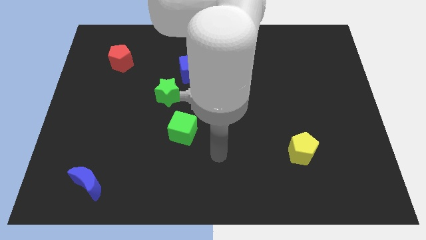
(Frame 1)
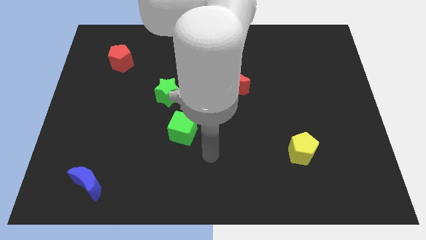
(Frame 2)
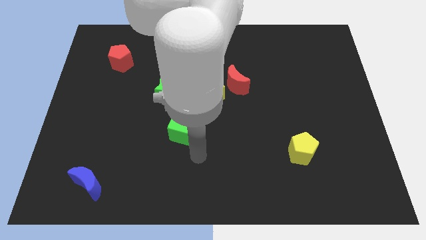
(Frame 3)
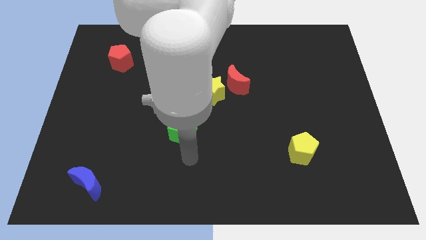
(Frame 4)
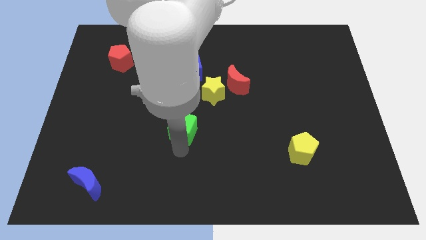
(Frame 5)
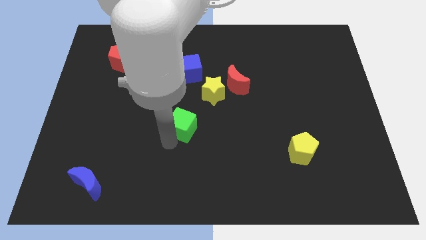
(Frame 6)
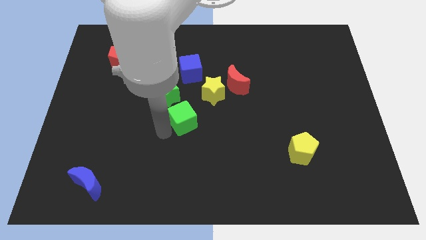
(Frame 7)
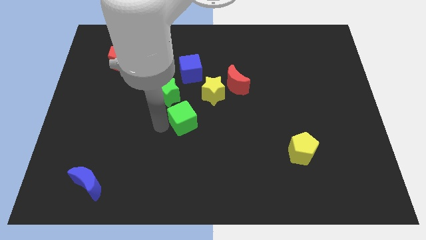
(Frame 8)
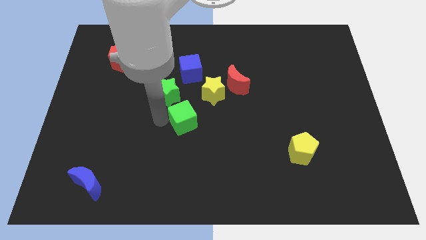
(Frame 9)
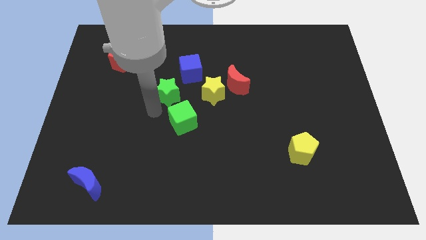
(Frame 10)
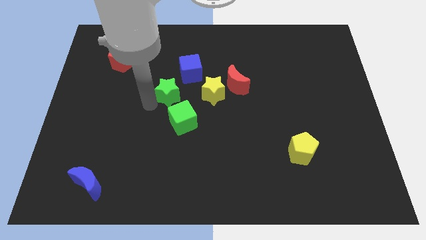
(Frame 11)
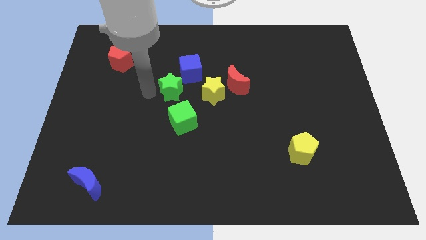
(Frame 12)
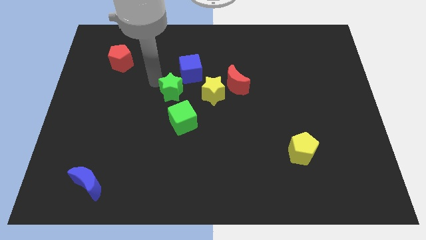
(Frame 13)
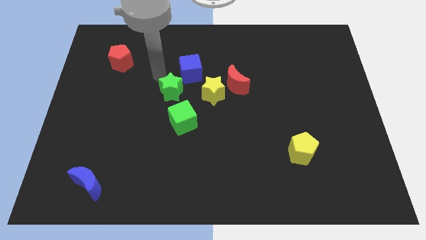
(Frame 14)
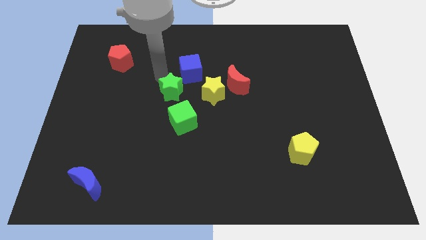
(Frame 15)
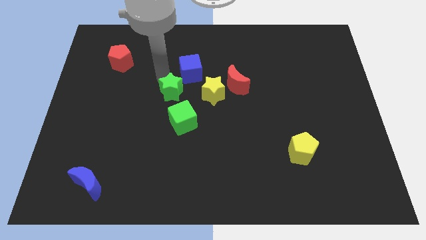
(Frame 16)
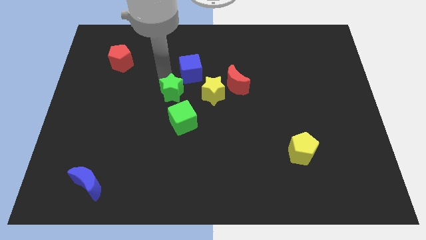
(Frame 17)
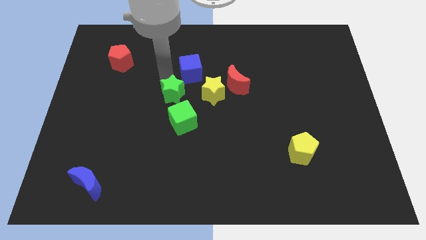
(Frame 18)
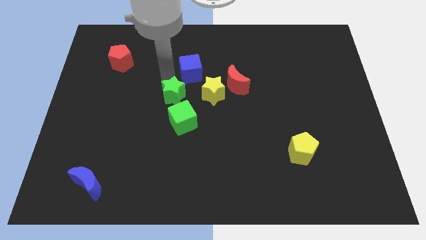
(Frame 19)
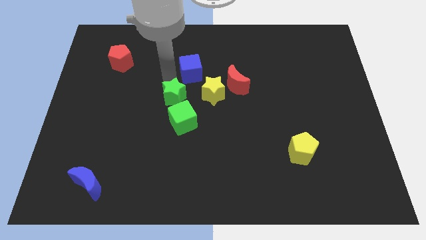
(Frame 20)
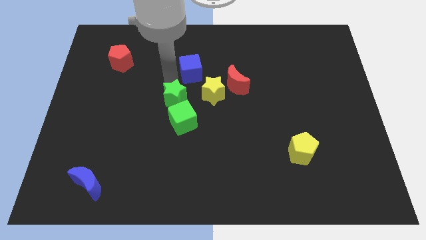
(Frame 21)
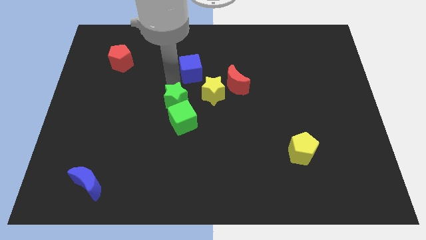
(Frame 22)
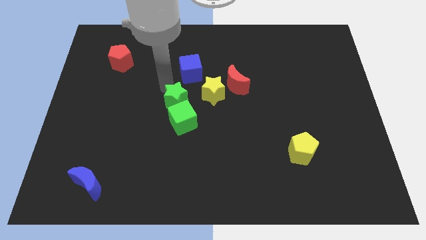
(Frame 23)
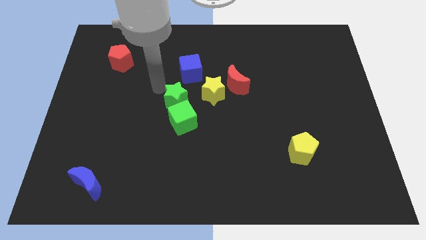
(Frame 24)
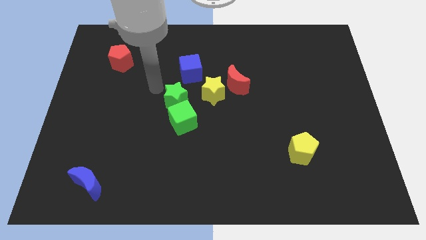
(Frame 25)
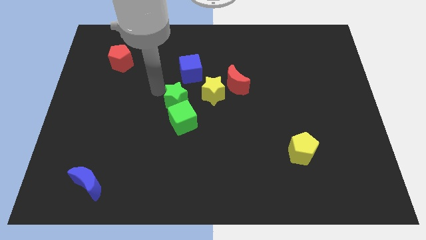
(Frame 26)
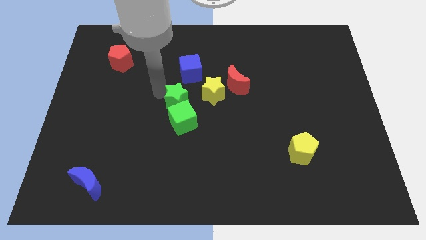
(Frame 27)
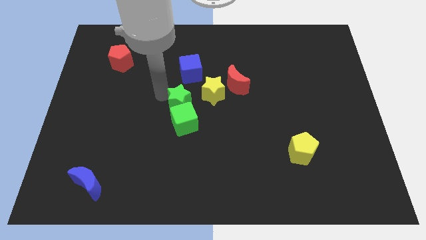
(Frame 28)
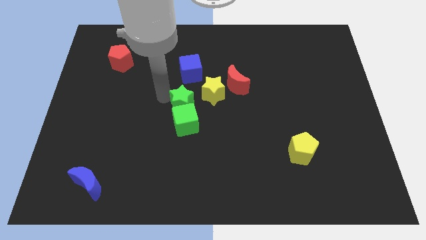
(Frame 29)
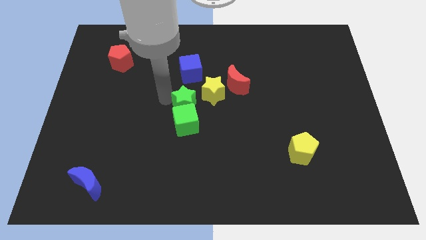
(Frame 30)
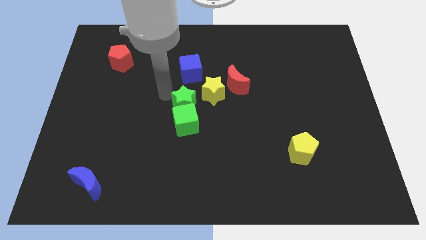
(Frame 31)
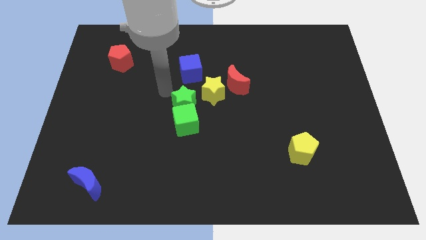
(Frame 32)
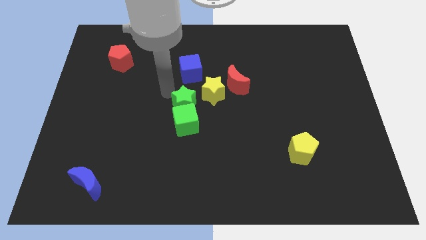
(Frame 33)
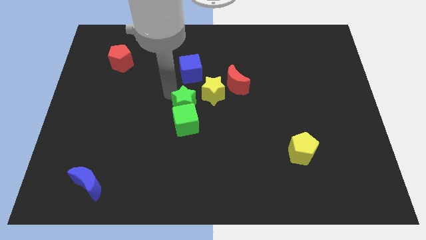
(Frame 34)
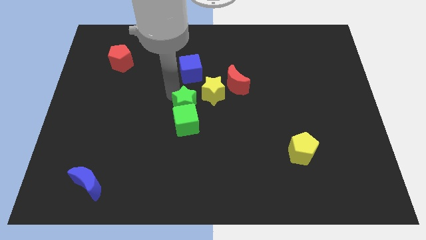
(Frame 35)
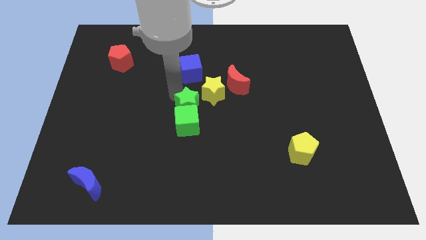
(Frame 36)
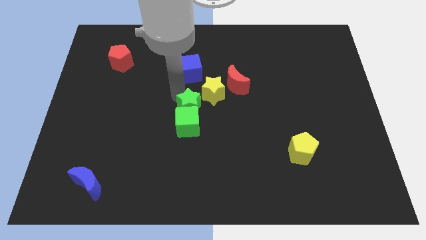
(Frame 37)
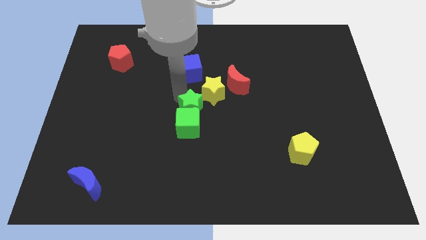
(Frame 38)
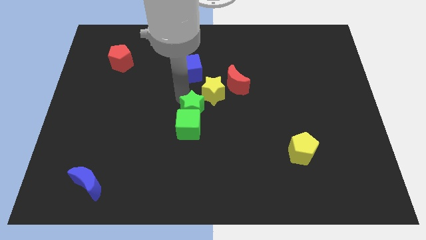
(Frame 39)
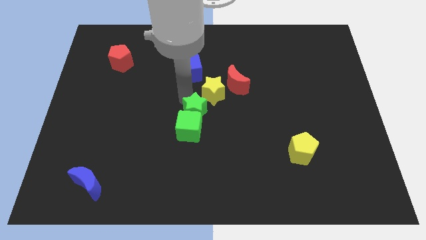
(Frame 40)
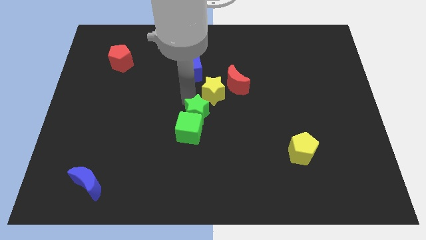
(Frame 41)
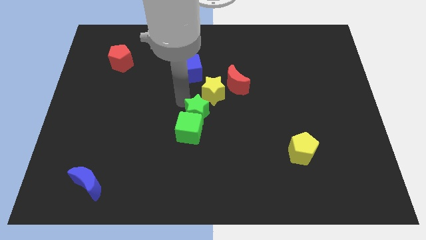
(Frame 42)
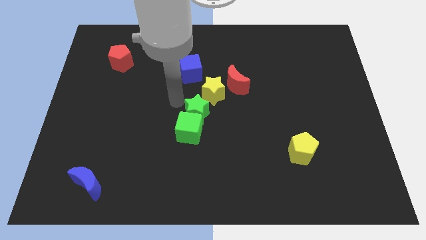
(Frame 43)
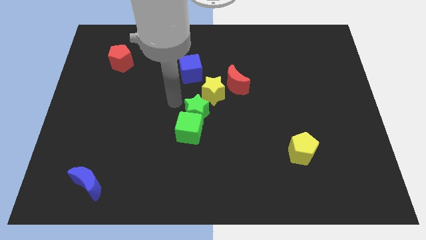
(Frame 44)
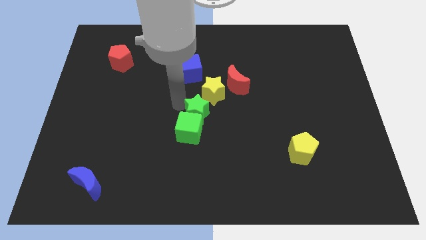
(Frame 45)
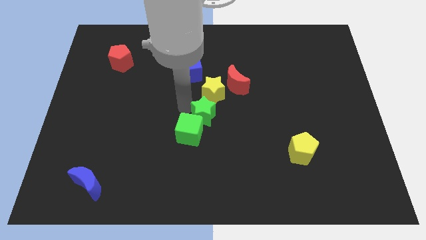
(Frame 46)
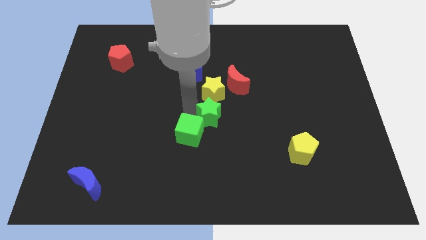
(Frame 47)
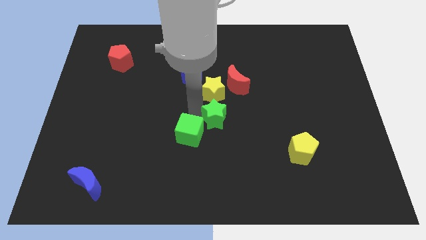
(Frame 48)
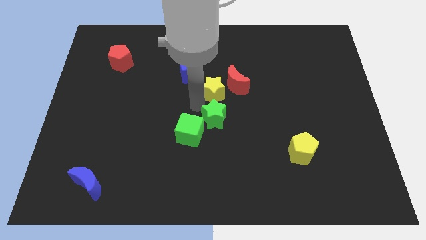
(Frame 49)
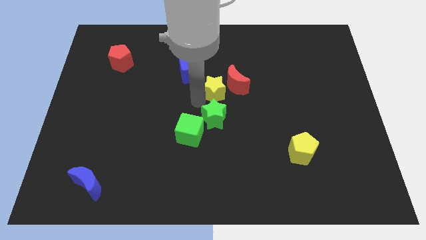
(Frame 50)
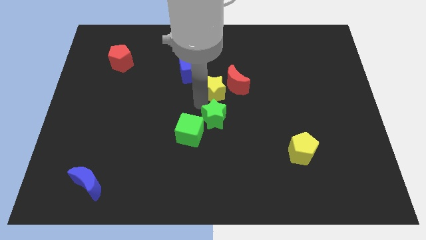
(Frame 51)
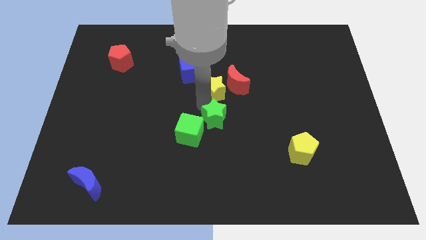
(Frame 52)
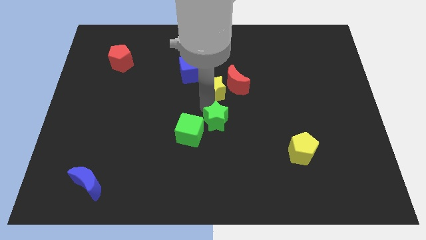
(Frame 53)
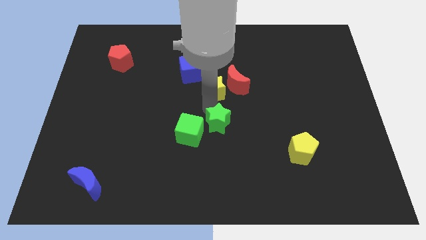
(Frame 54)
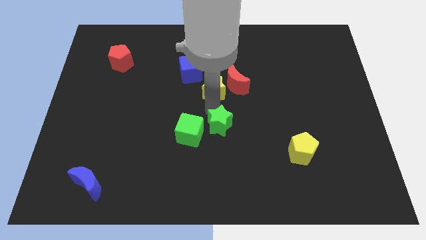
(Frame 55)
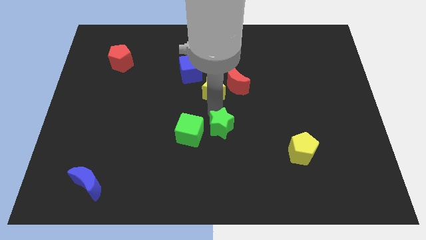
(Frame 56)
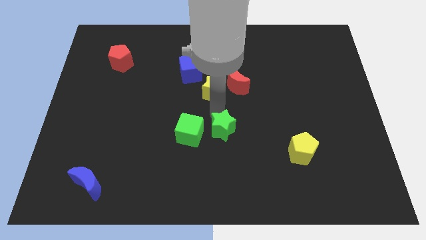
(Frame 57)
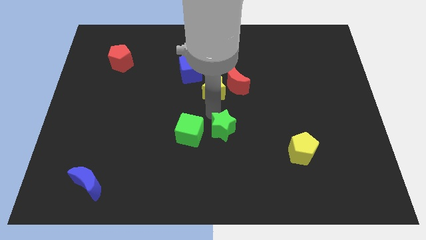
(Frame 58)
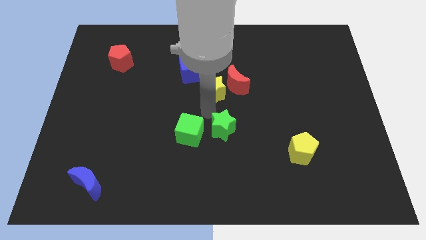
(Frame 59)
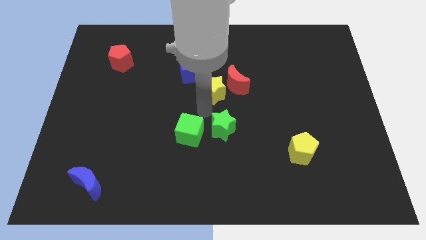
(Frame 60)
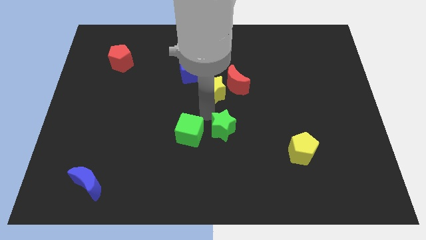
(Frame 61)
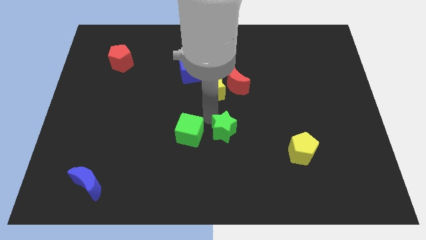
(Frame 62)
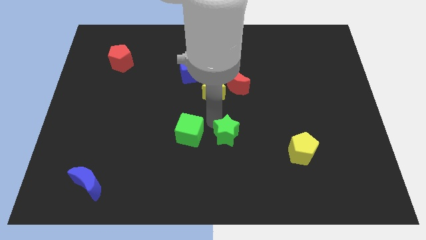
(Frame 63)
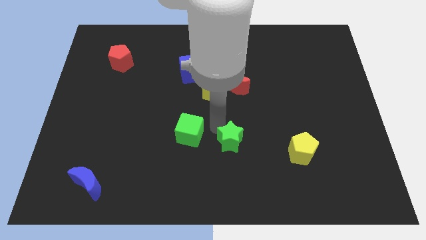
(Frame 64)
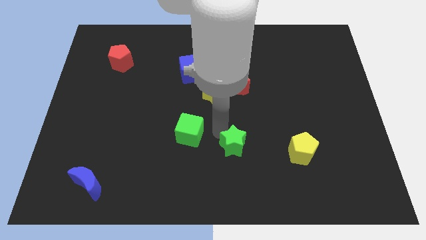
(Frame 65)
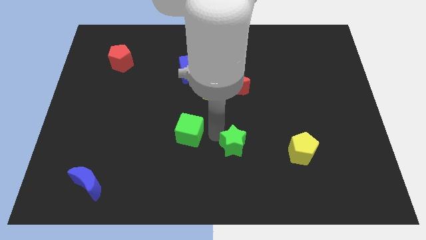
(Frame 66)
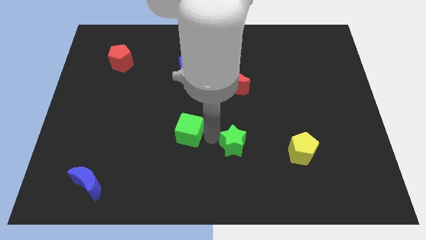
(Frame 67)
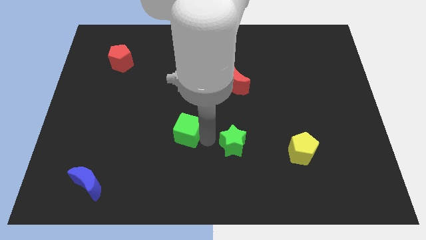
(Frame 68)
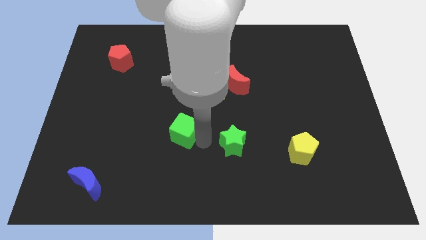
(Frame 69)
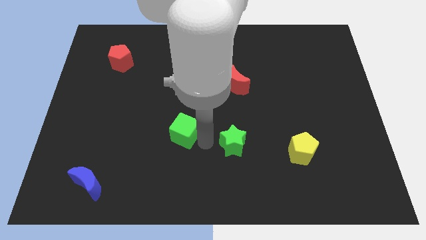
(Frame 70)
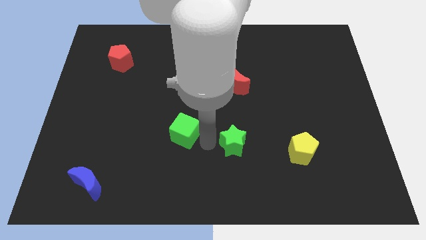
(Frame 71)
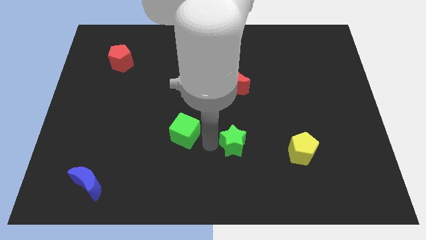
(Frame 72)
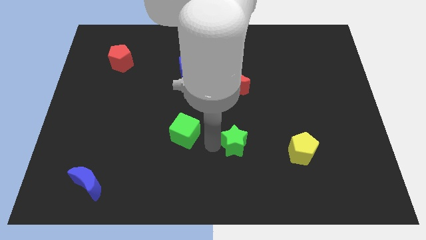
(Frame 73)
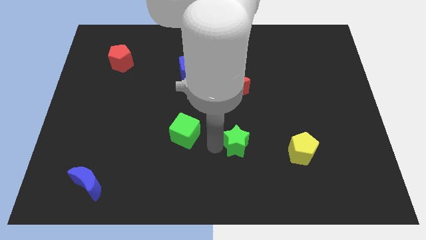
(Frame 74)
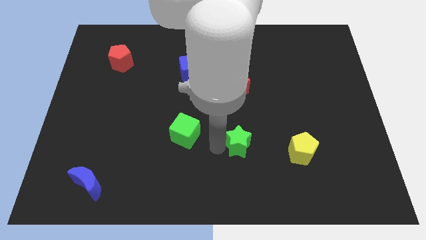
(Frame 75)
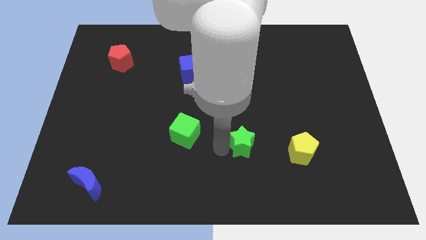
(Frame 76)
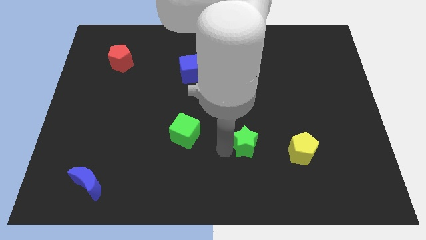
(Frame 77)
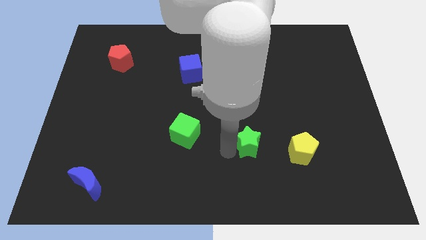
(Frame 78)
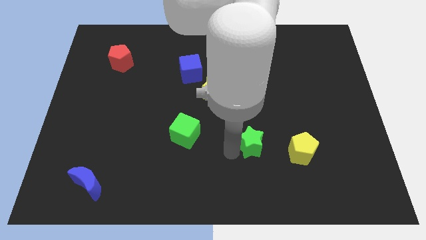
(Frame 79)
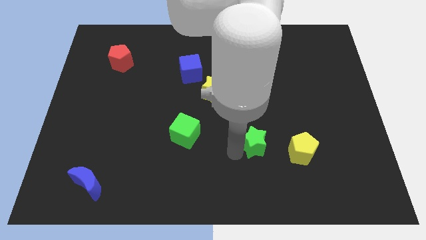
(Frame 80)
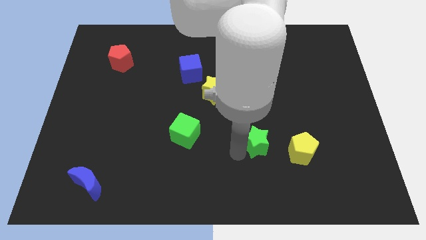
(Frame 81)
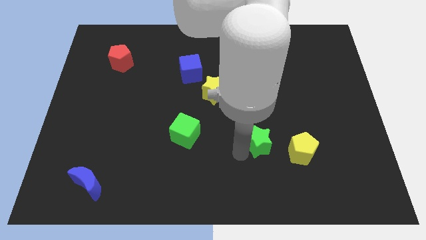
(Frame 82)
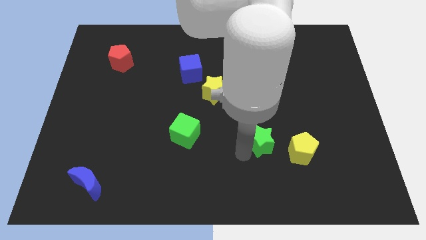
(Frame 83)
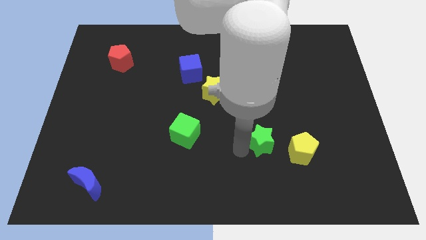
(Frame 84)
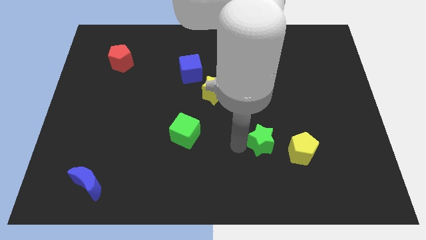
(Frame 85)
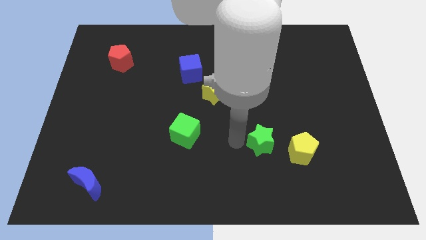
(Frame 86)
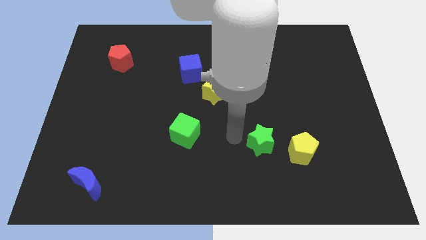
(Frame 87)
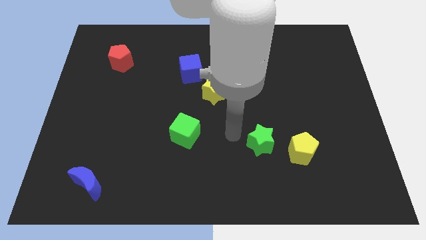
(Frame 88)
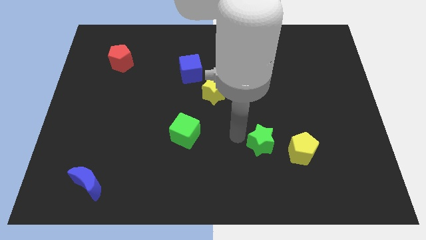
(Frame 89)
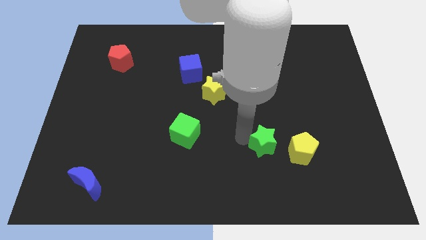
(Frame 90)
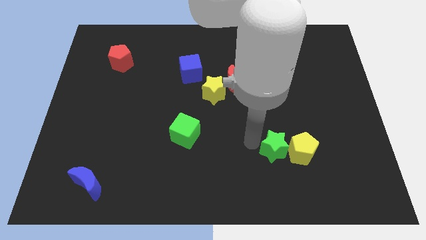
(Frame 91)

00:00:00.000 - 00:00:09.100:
move the green star to the yellow pentagon
